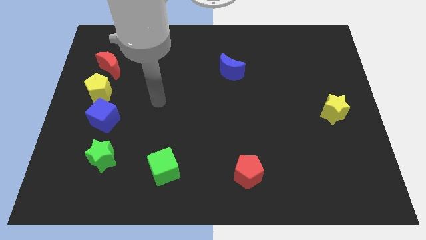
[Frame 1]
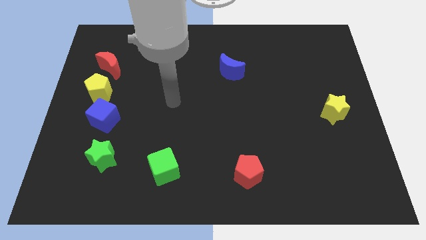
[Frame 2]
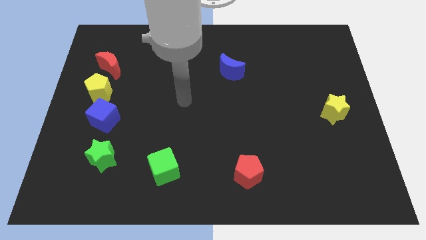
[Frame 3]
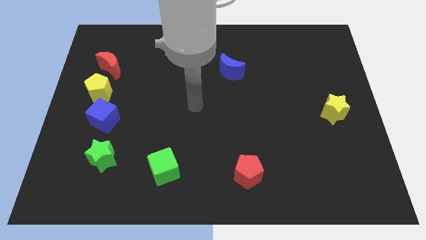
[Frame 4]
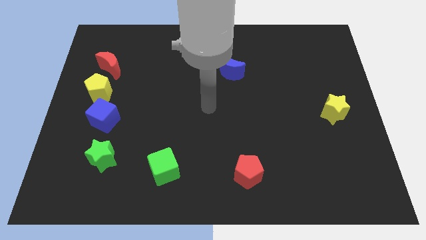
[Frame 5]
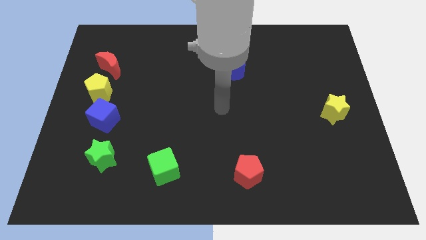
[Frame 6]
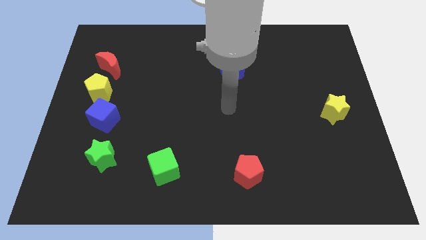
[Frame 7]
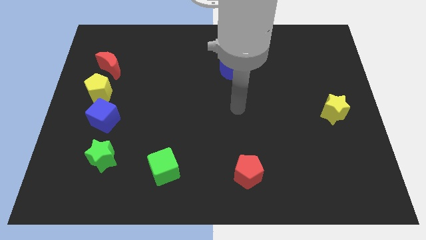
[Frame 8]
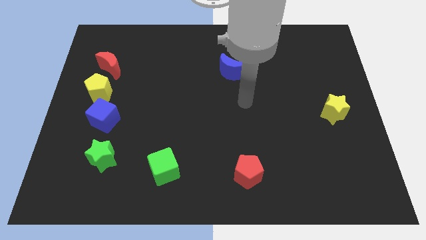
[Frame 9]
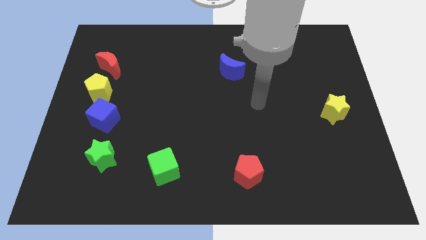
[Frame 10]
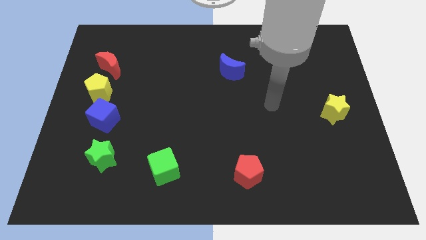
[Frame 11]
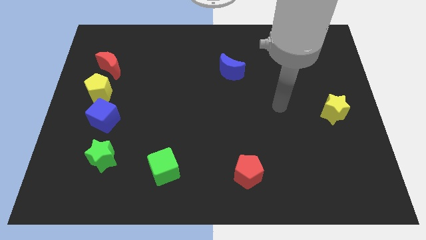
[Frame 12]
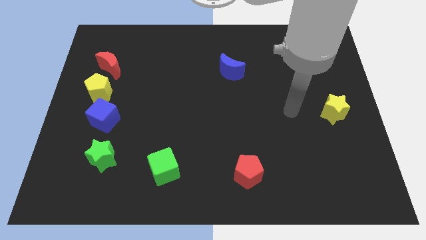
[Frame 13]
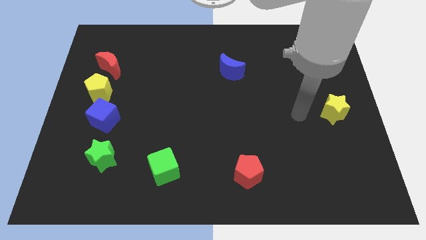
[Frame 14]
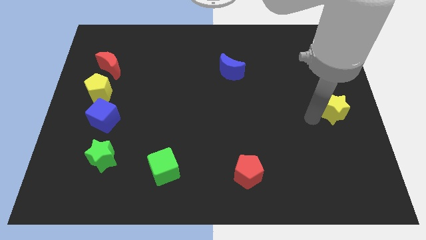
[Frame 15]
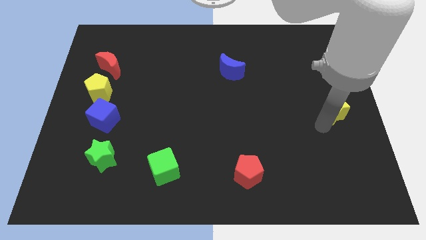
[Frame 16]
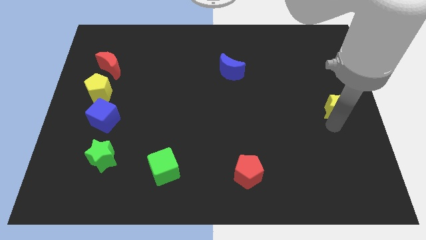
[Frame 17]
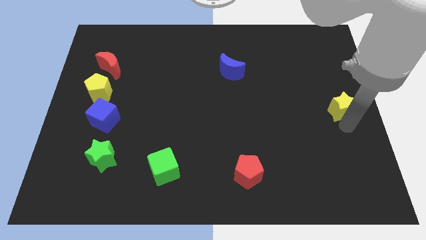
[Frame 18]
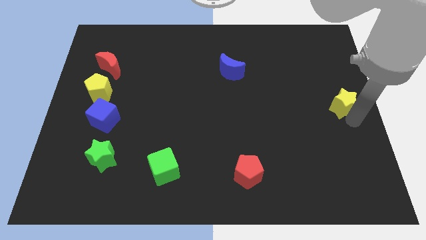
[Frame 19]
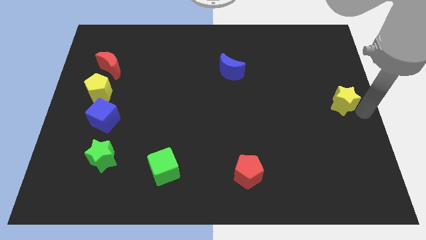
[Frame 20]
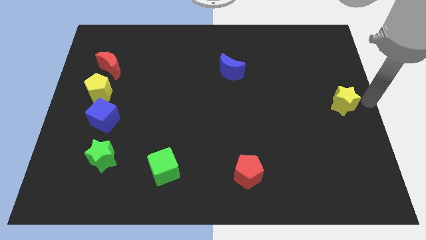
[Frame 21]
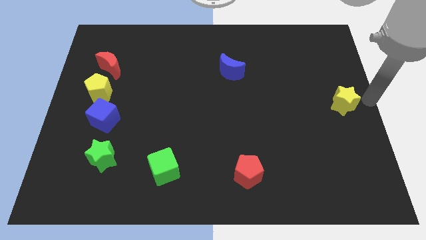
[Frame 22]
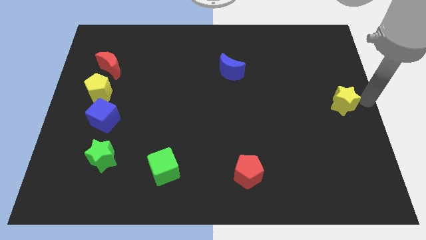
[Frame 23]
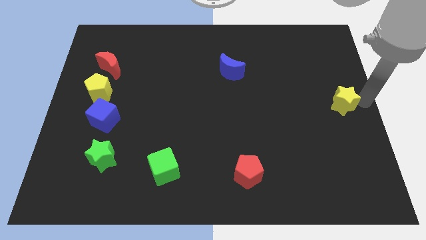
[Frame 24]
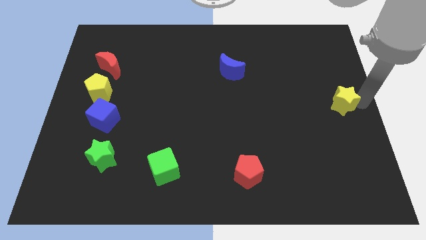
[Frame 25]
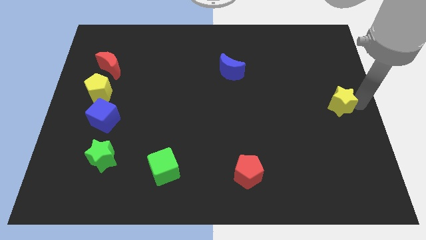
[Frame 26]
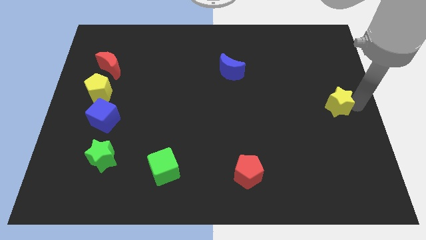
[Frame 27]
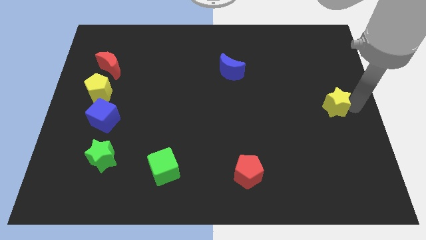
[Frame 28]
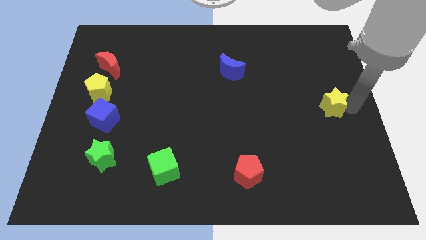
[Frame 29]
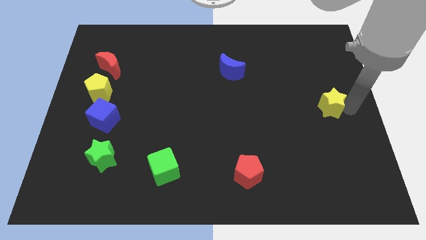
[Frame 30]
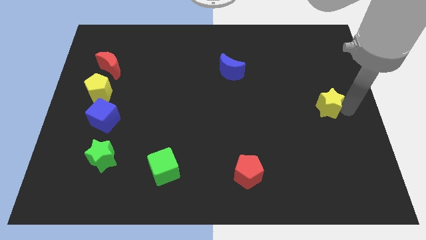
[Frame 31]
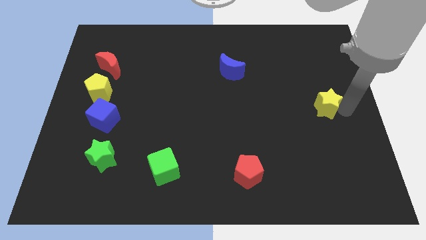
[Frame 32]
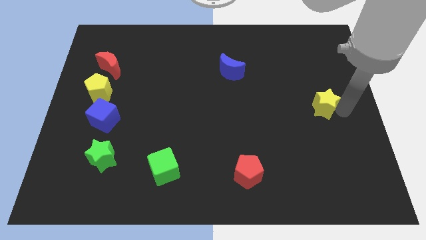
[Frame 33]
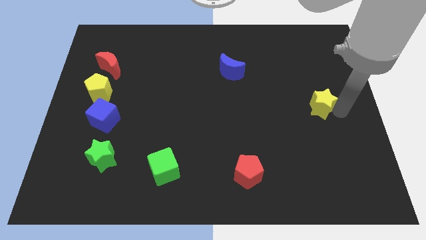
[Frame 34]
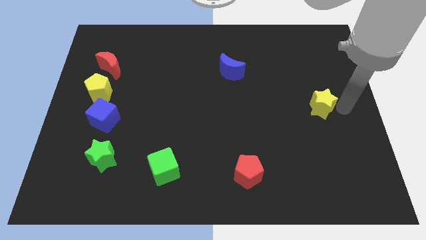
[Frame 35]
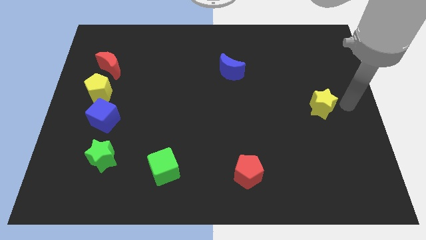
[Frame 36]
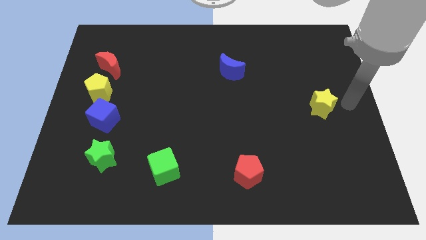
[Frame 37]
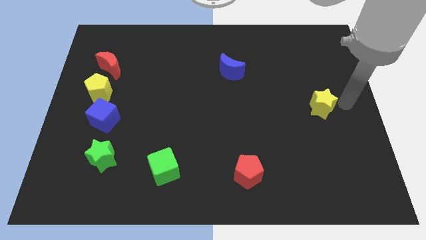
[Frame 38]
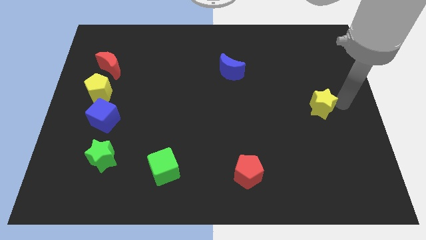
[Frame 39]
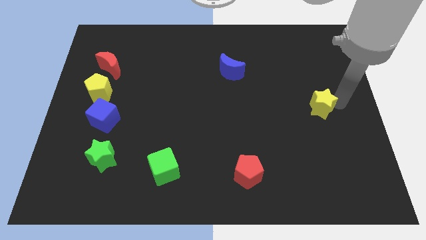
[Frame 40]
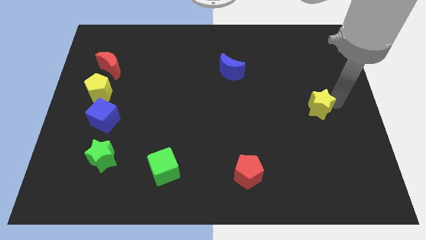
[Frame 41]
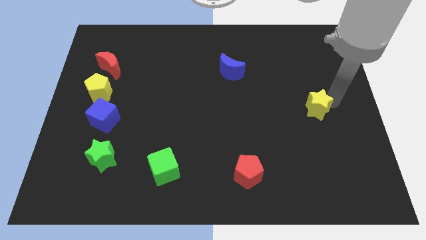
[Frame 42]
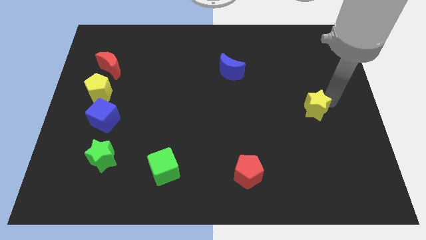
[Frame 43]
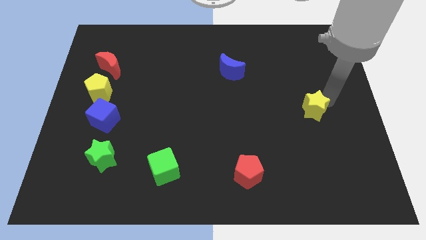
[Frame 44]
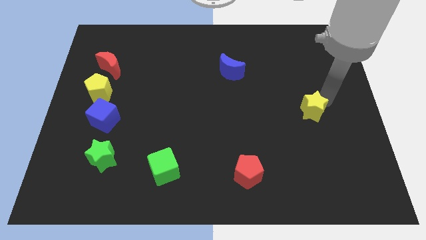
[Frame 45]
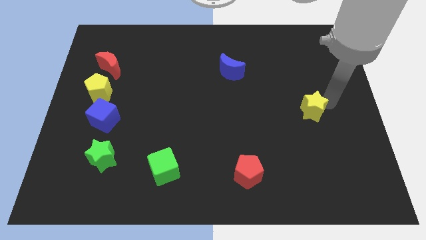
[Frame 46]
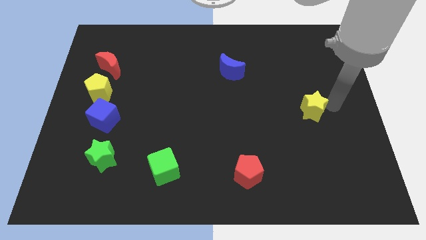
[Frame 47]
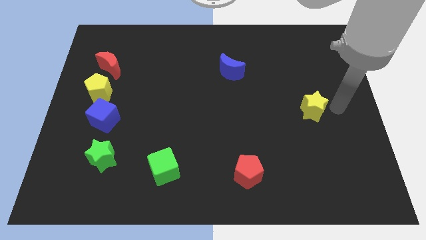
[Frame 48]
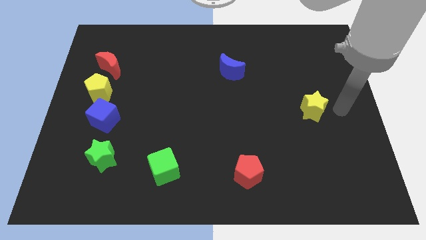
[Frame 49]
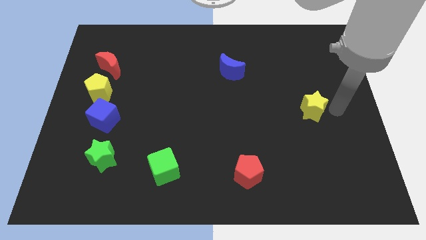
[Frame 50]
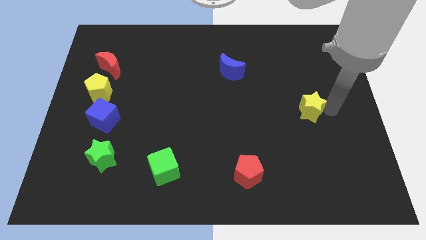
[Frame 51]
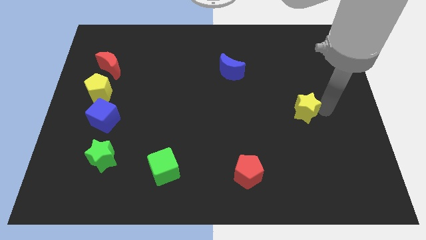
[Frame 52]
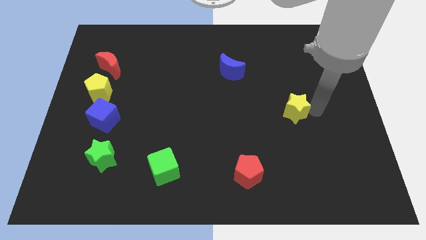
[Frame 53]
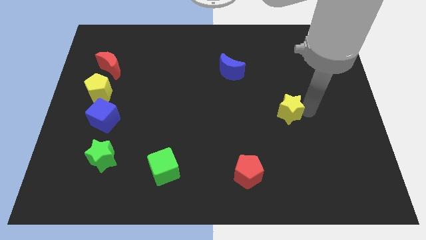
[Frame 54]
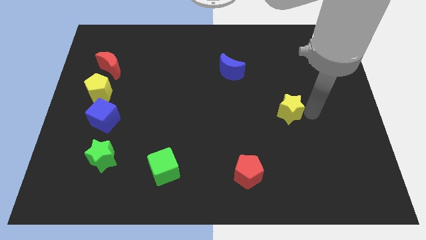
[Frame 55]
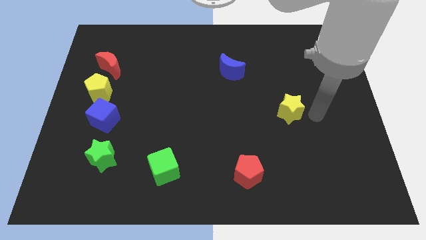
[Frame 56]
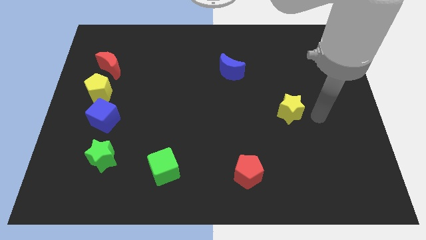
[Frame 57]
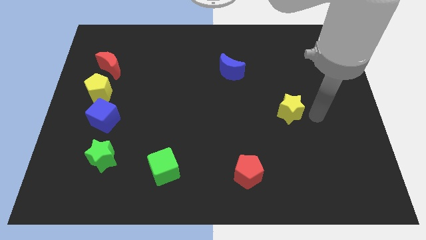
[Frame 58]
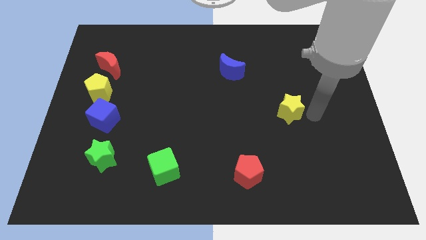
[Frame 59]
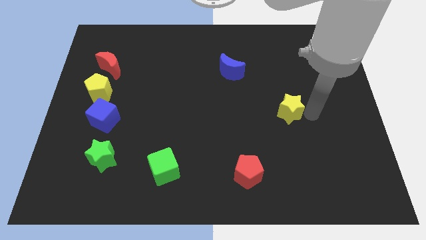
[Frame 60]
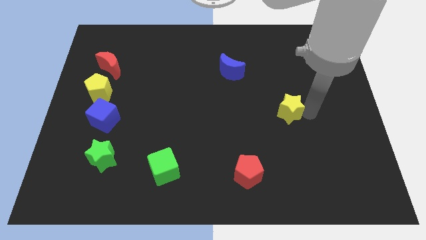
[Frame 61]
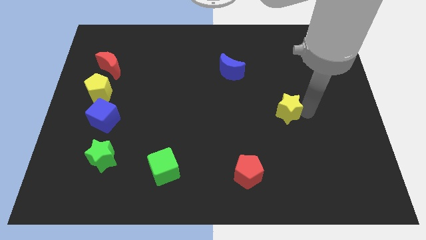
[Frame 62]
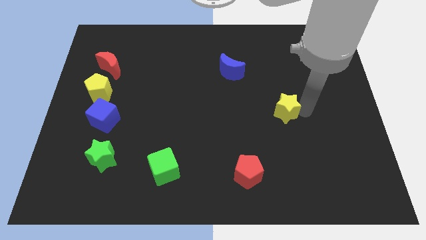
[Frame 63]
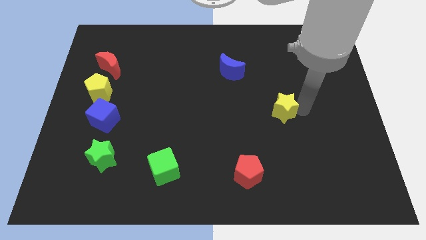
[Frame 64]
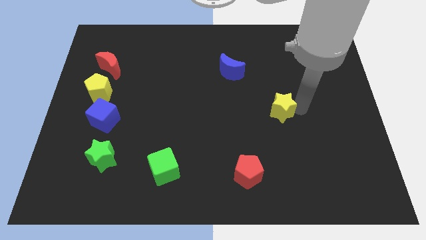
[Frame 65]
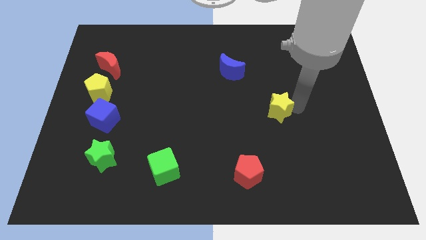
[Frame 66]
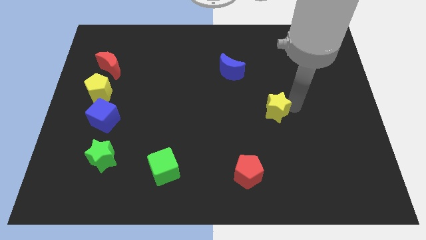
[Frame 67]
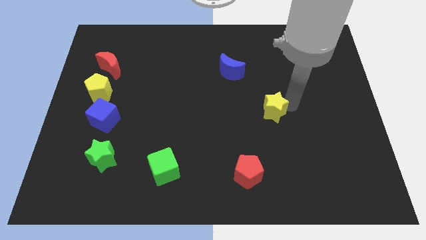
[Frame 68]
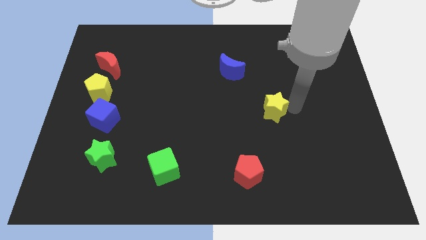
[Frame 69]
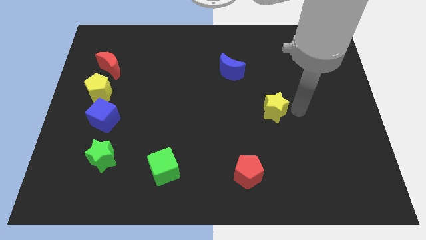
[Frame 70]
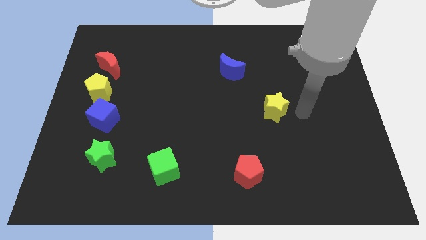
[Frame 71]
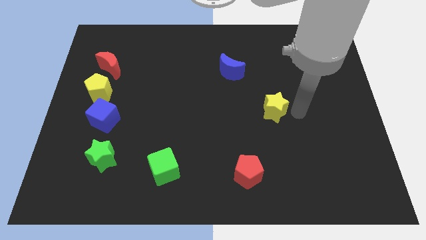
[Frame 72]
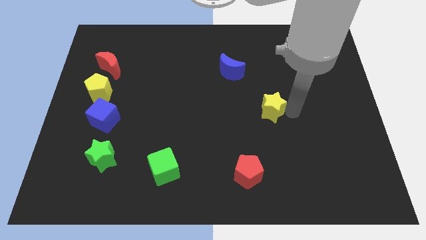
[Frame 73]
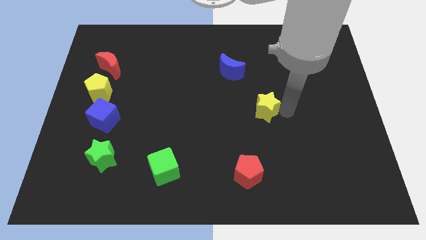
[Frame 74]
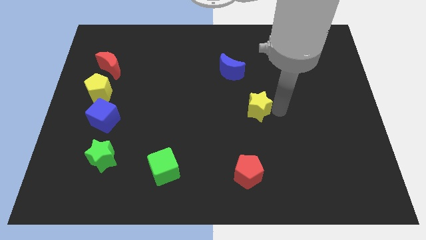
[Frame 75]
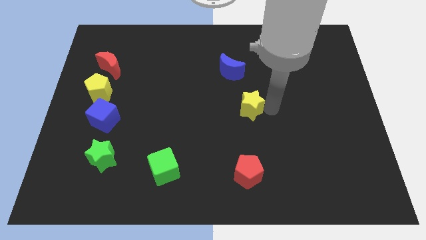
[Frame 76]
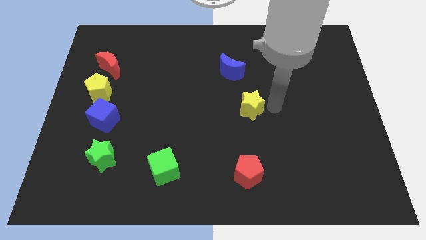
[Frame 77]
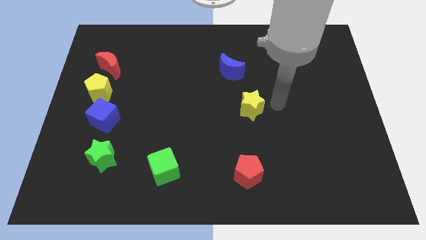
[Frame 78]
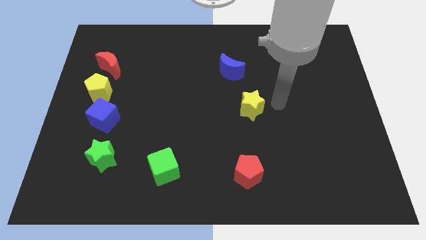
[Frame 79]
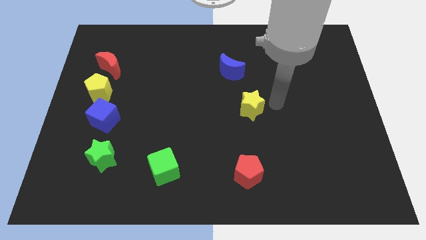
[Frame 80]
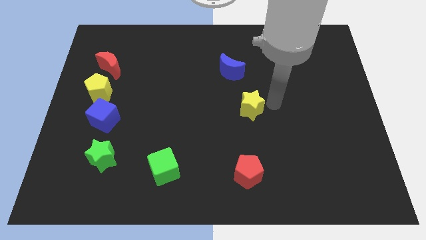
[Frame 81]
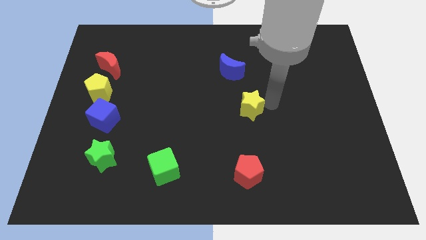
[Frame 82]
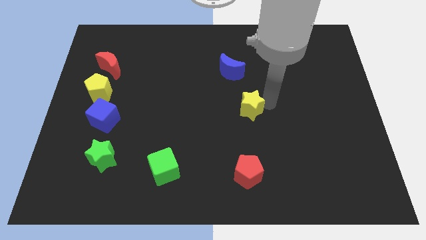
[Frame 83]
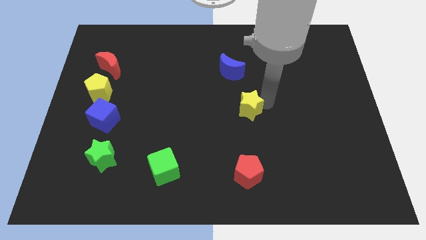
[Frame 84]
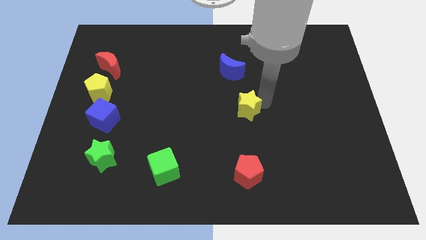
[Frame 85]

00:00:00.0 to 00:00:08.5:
push the yellow star left
